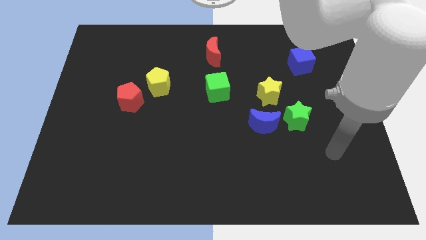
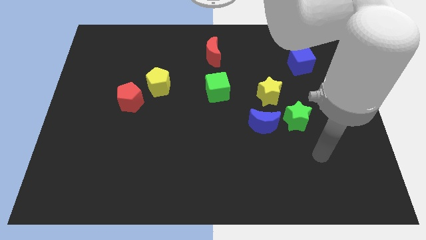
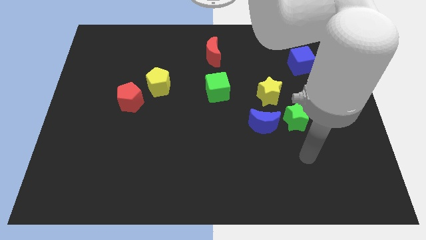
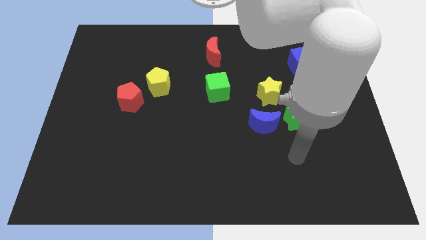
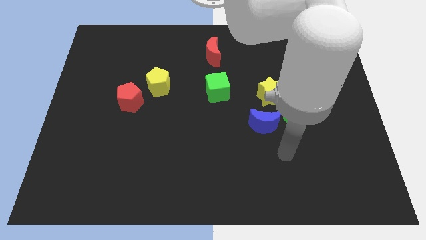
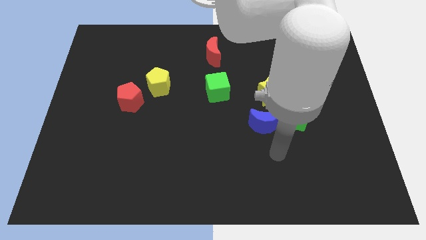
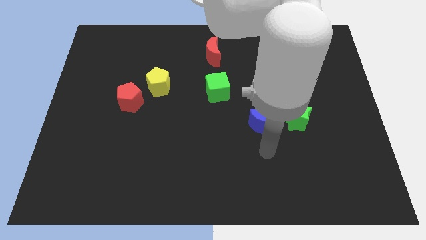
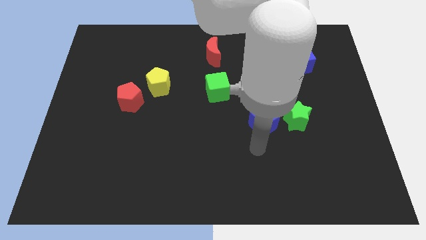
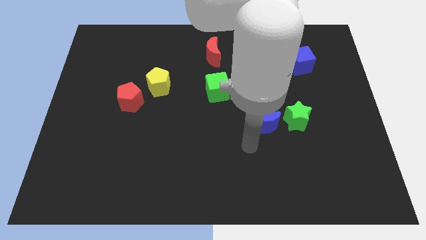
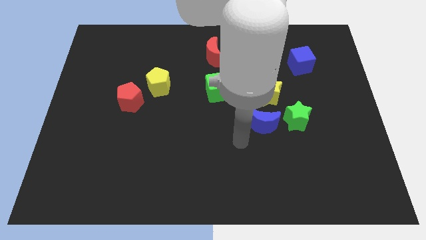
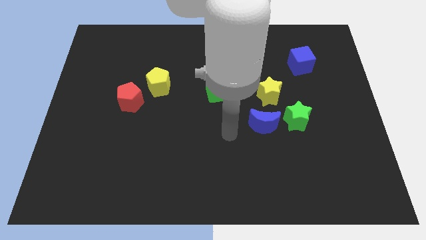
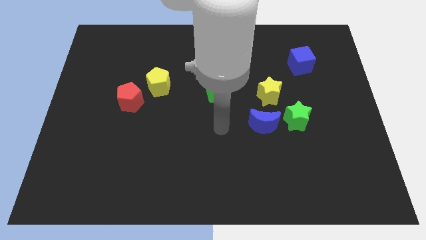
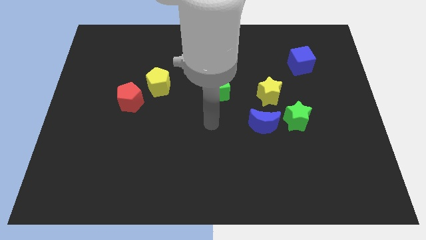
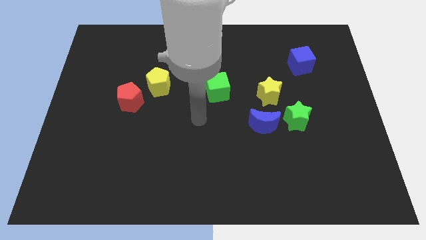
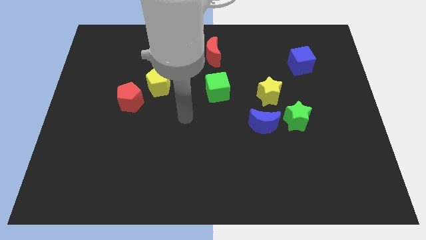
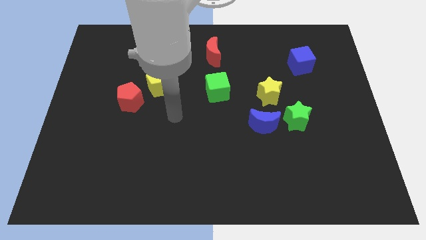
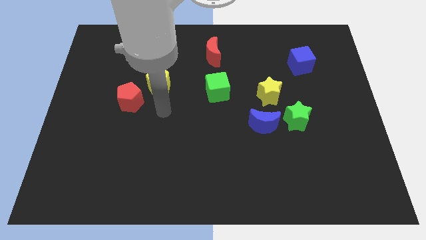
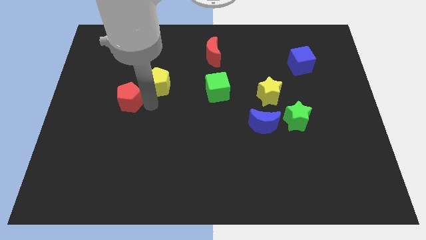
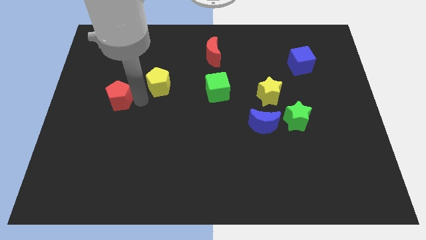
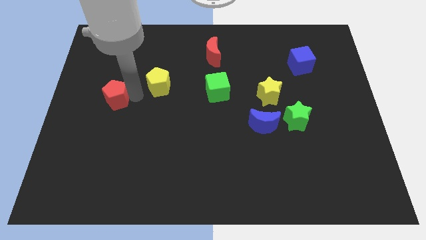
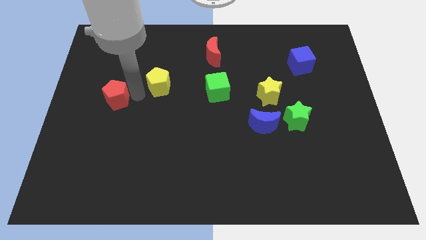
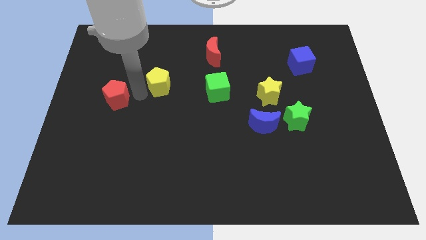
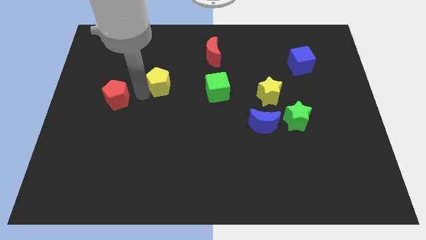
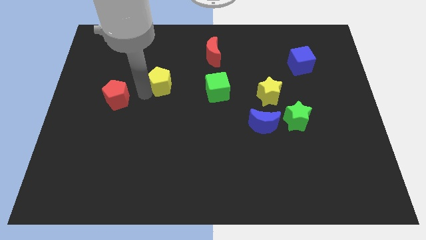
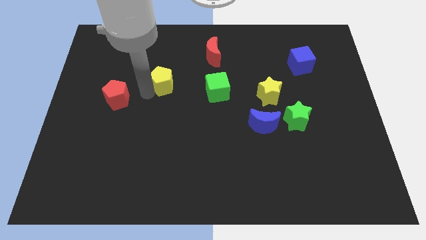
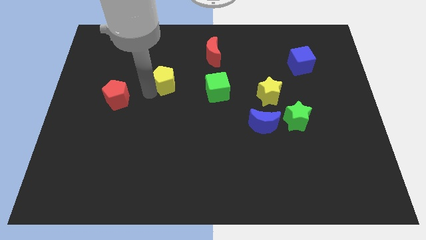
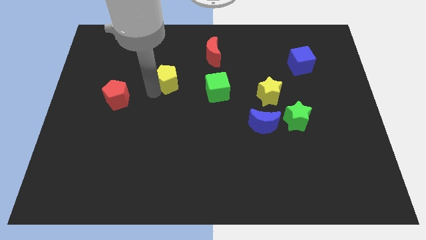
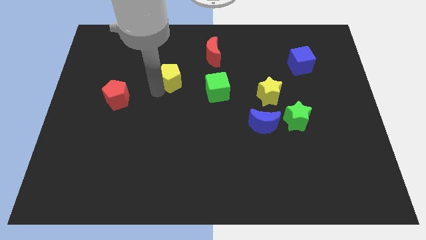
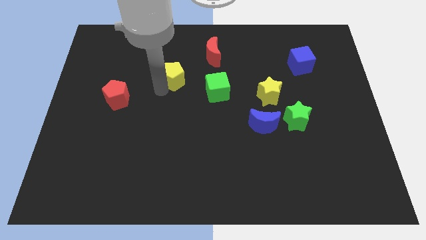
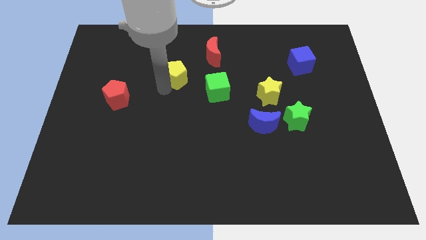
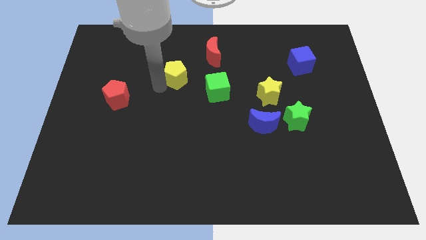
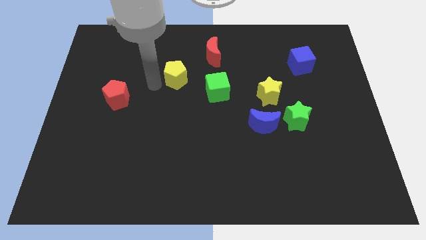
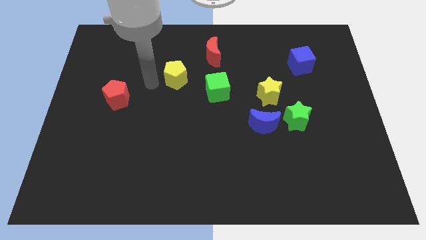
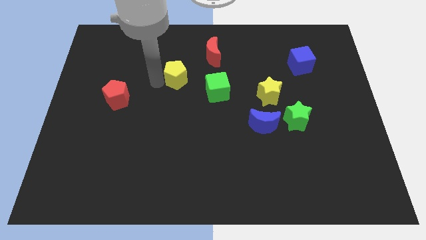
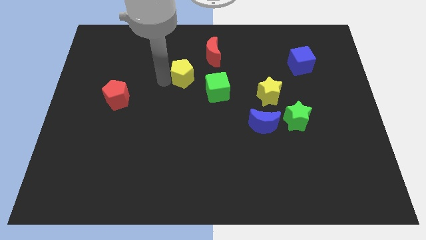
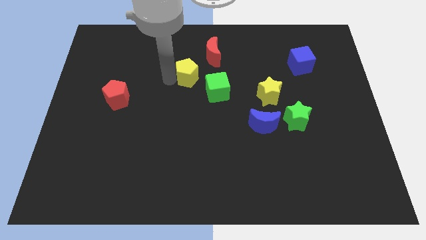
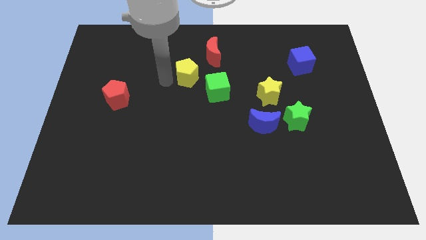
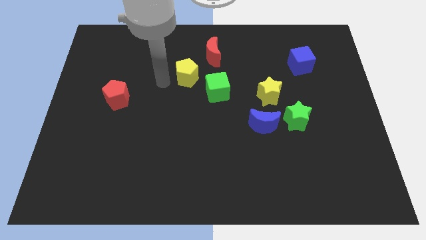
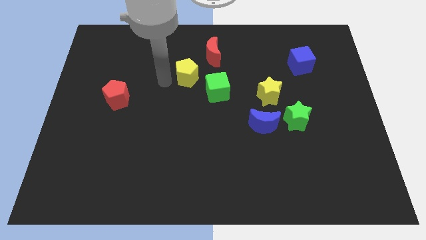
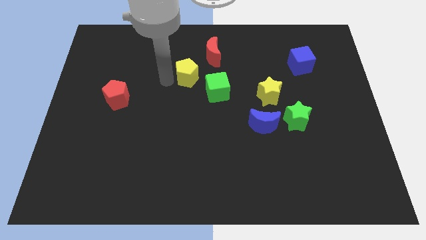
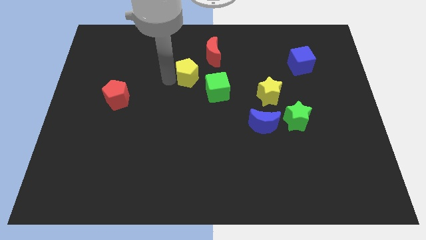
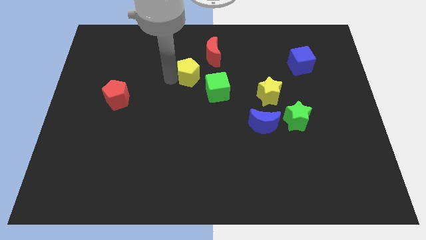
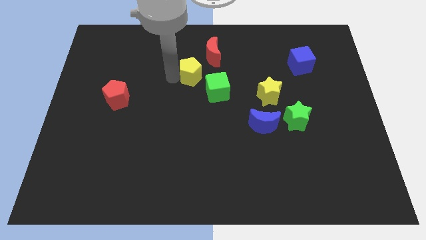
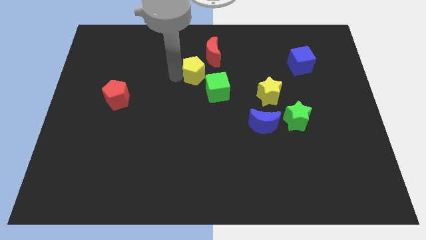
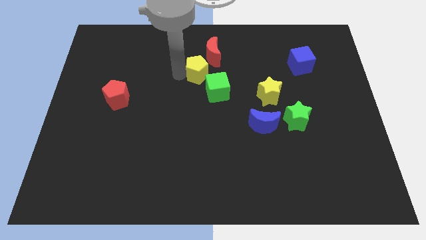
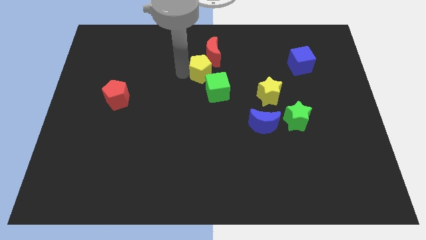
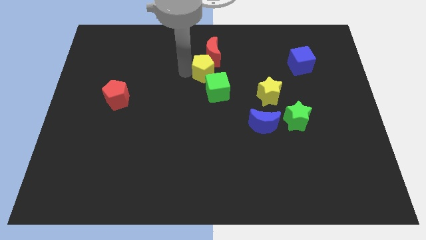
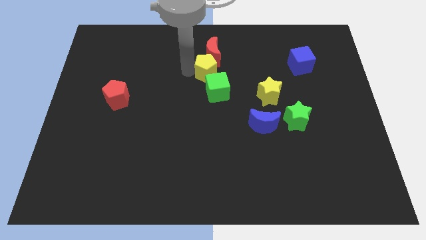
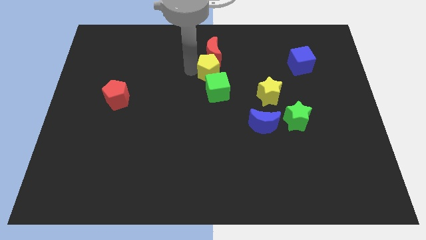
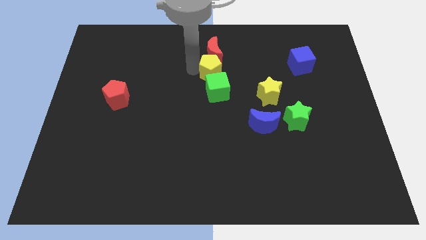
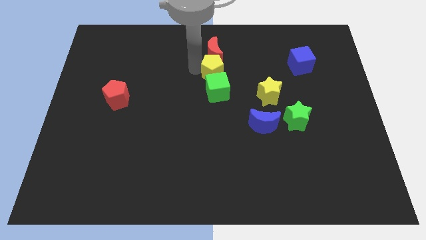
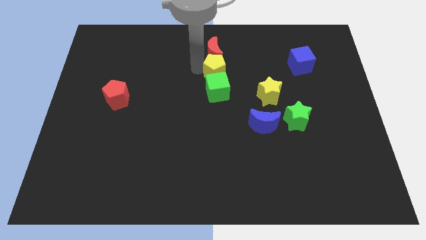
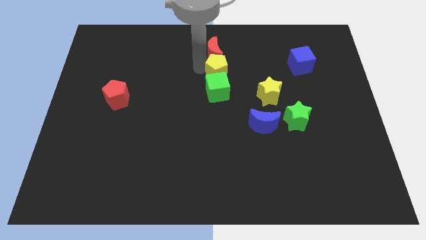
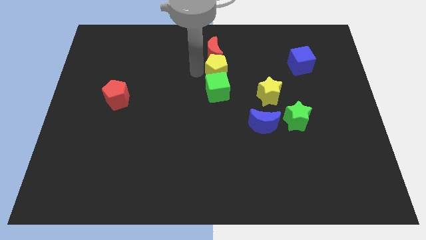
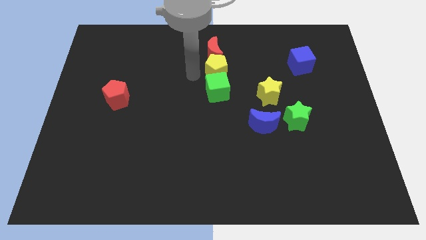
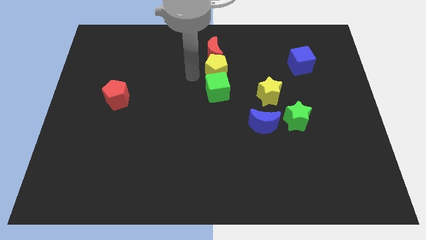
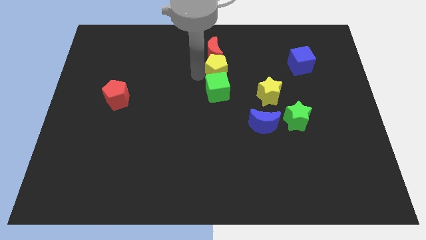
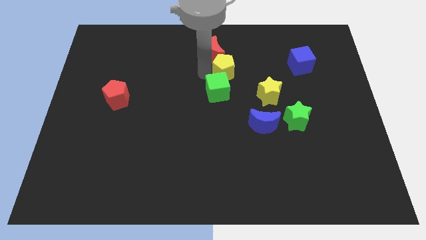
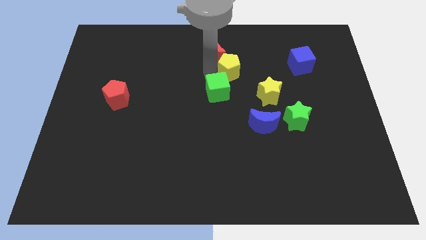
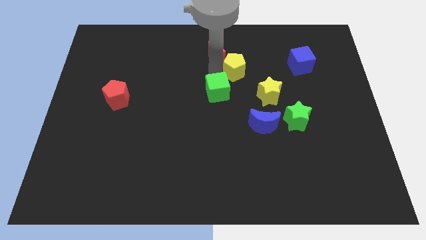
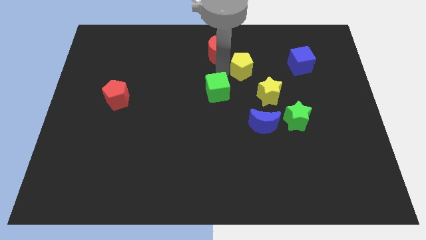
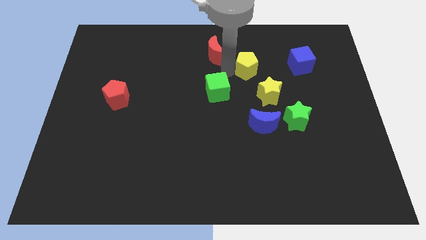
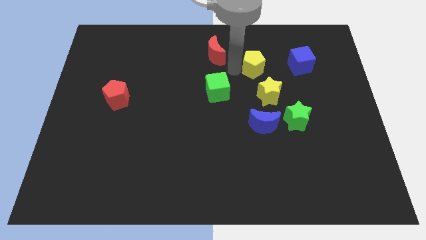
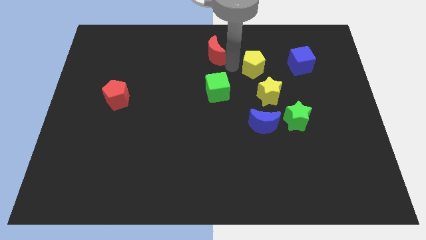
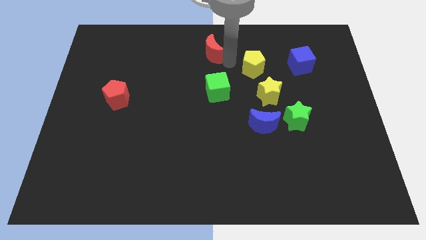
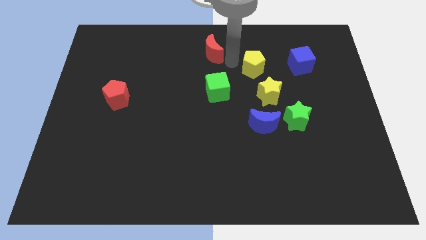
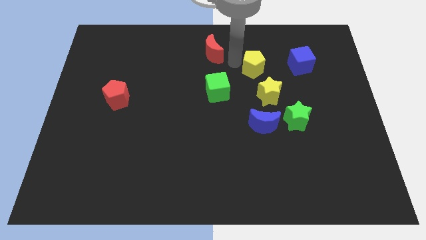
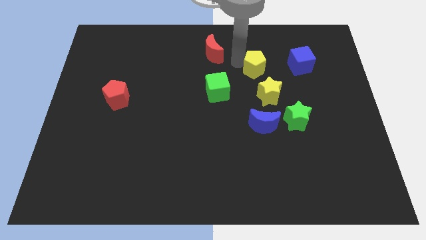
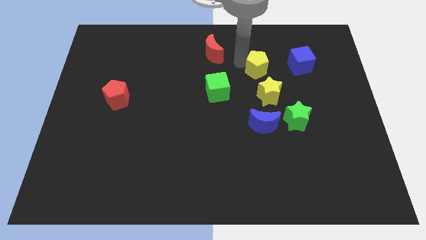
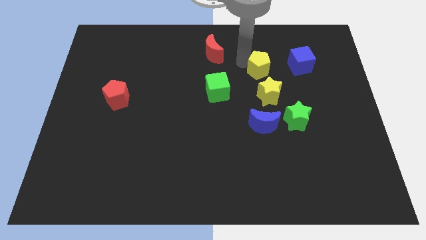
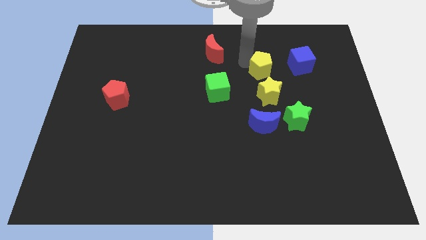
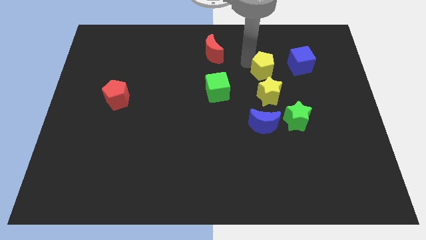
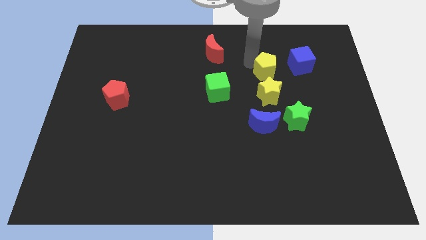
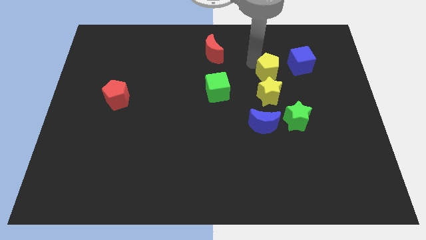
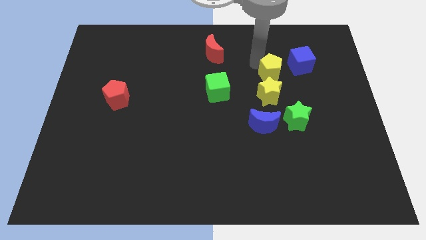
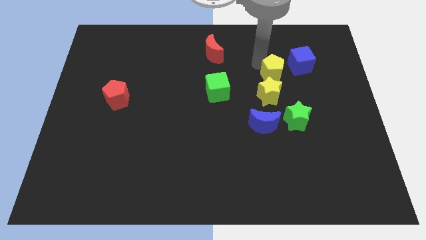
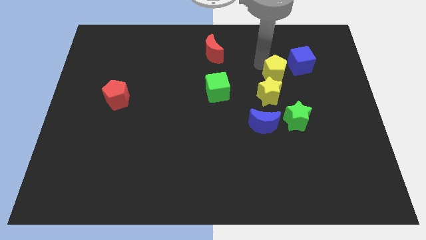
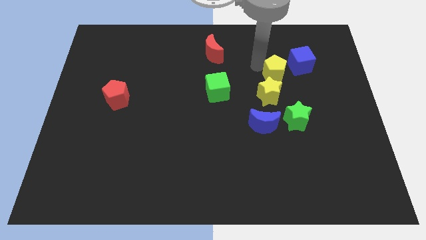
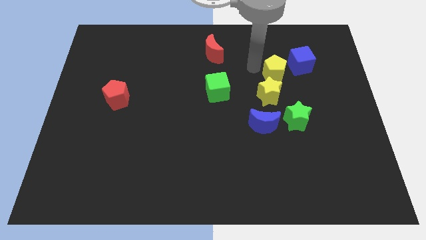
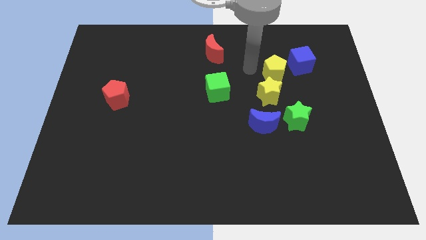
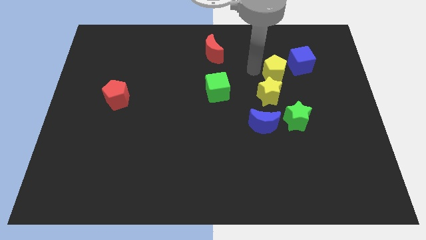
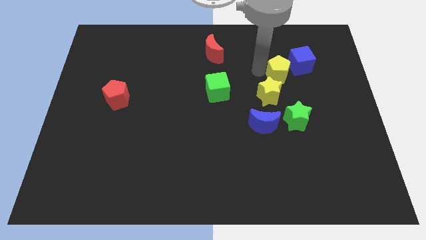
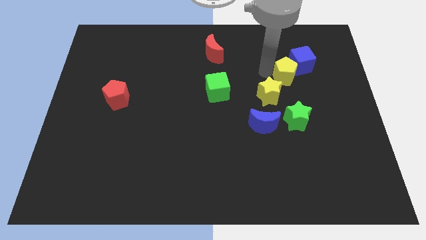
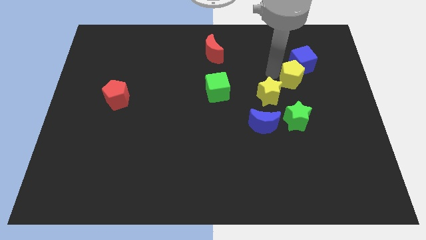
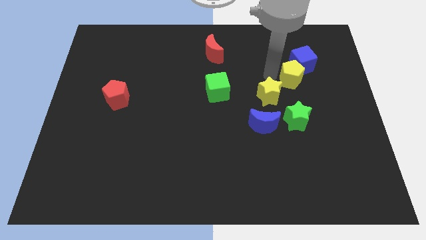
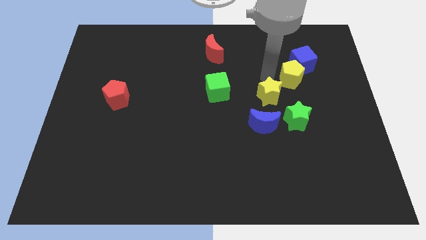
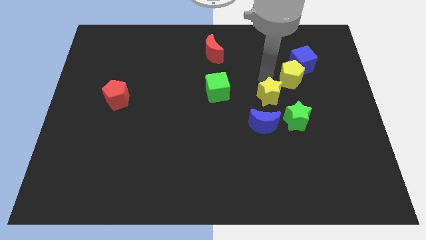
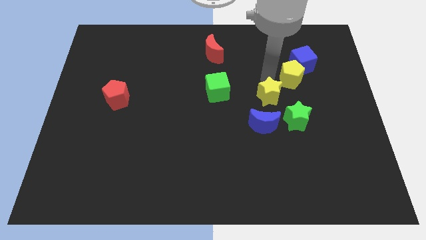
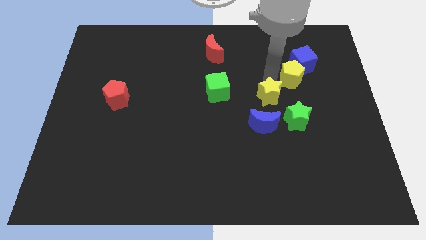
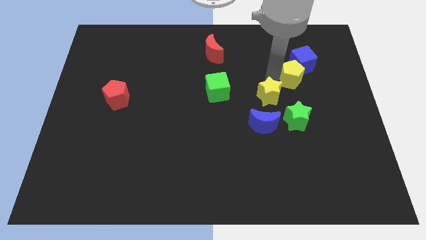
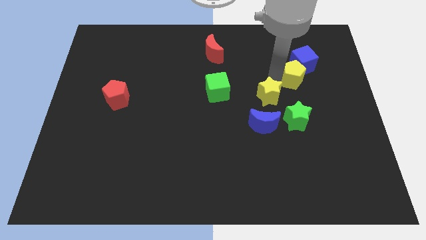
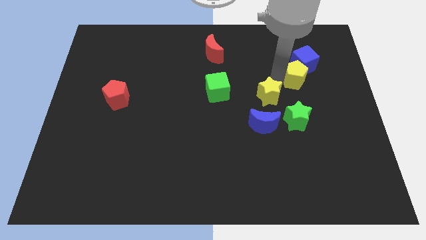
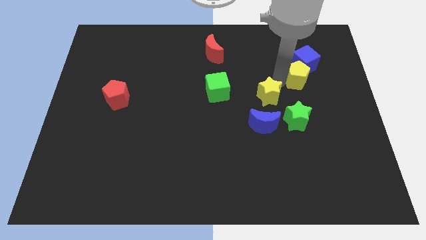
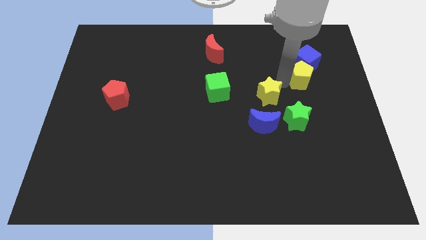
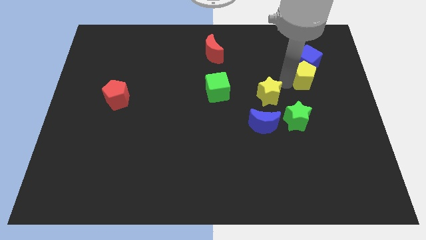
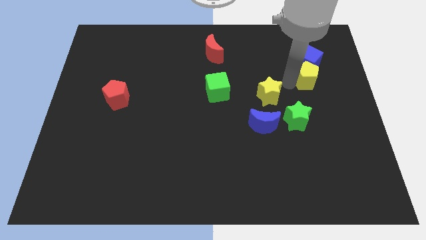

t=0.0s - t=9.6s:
put the yellow pentagon diagonally down and to the right of the blue cube
